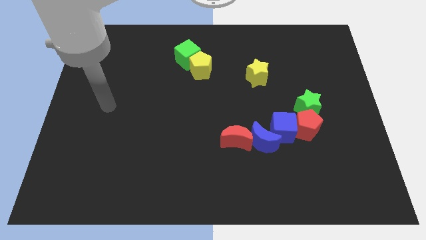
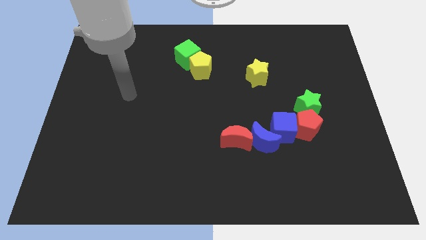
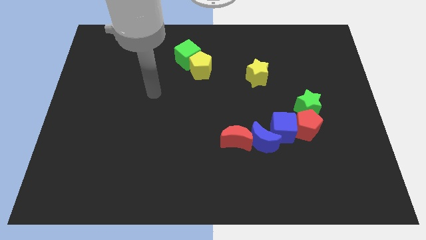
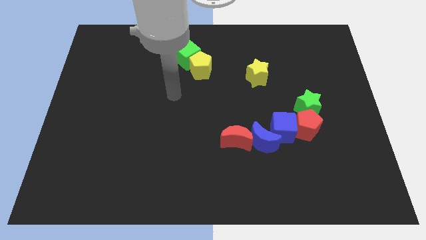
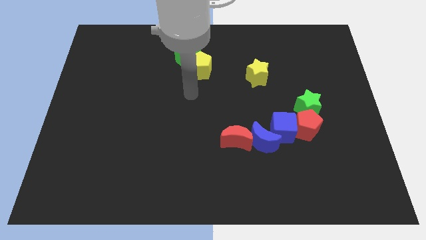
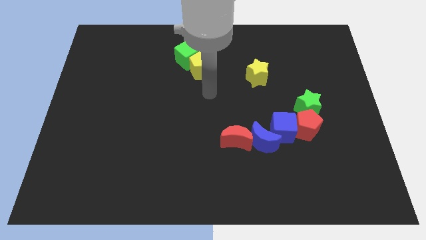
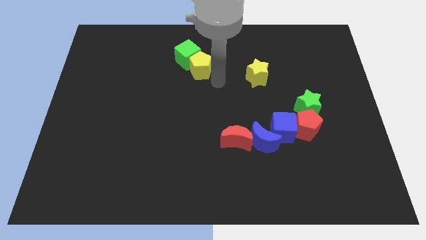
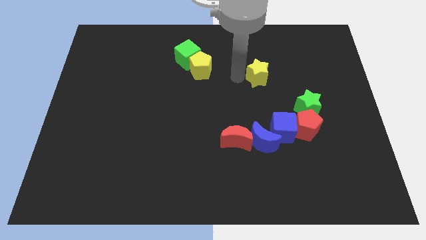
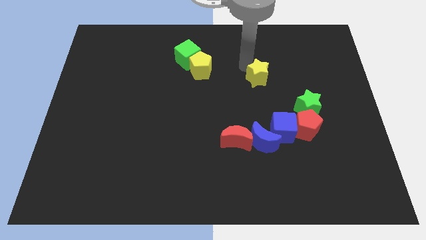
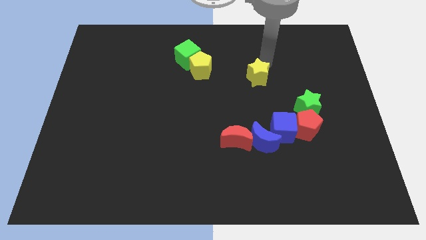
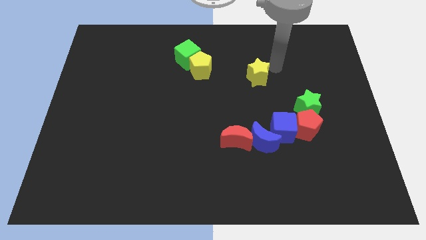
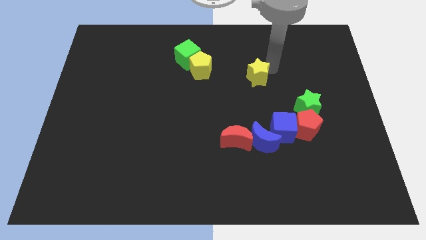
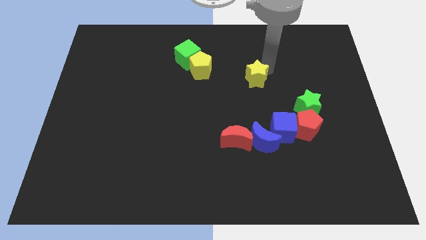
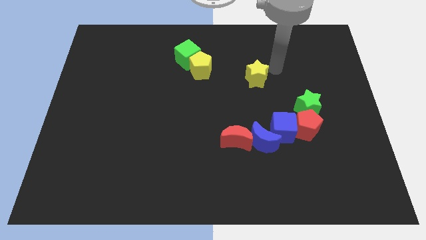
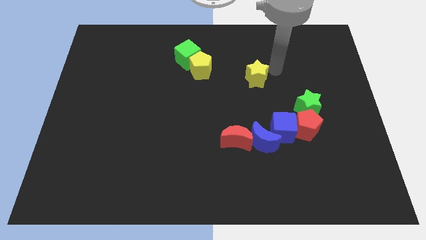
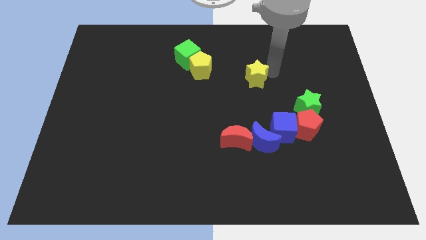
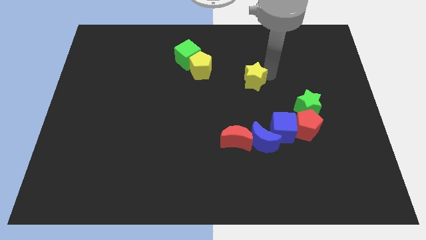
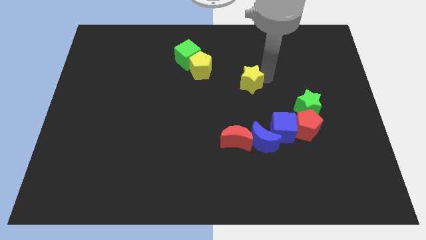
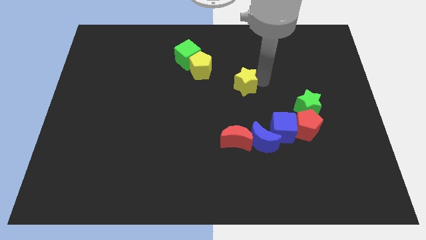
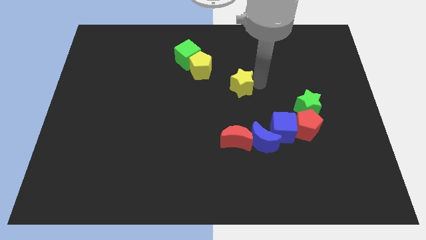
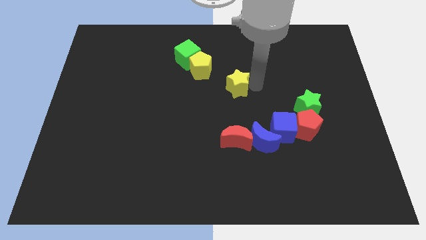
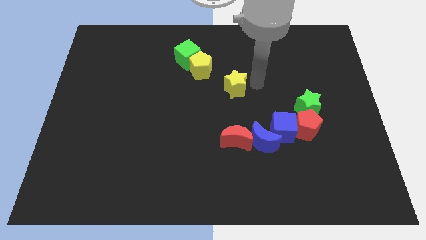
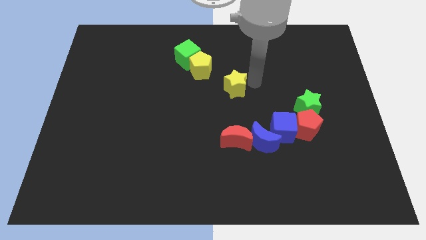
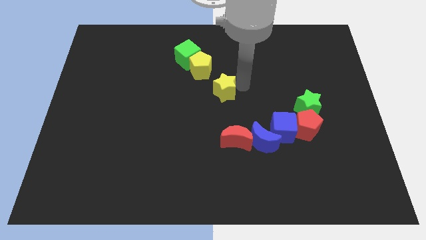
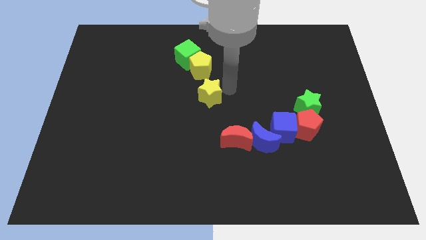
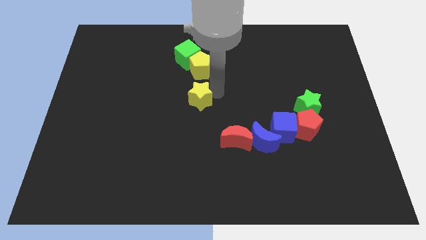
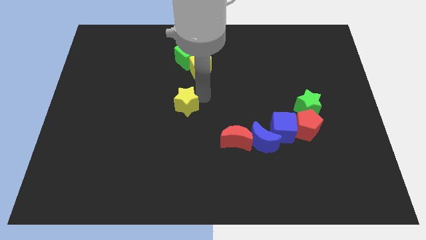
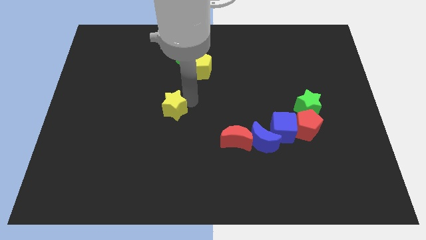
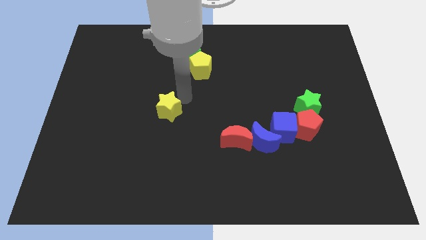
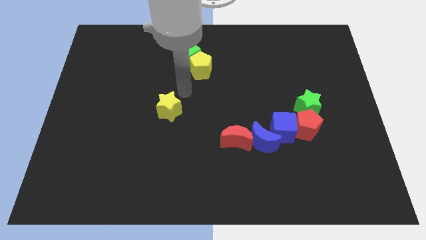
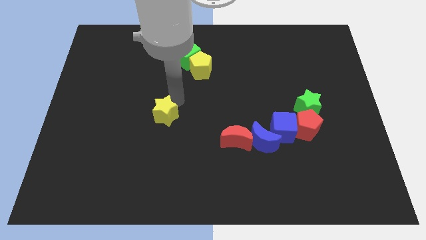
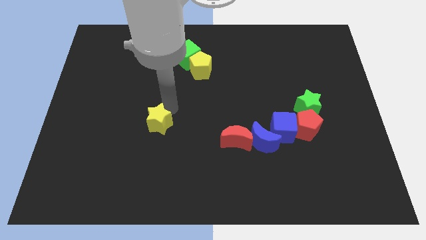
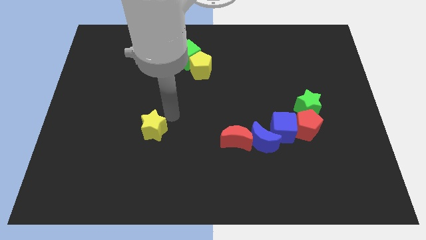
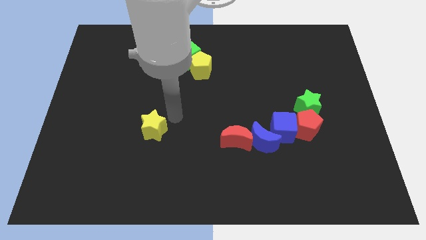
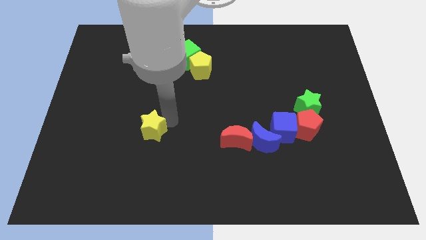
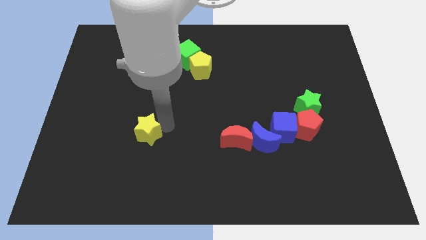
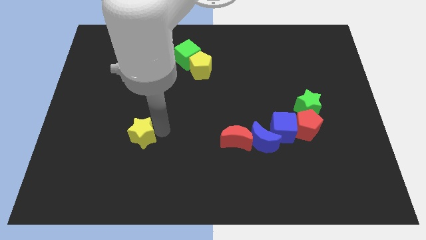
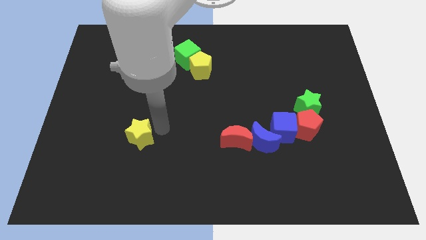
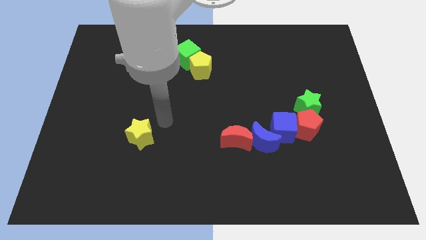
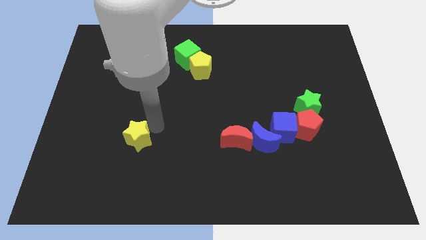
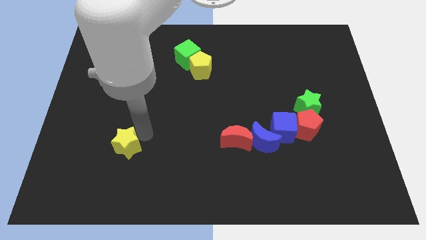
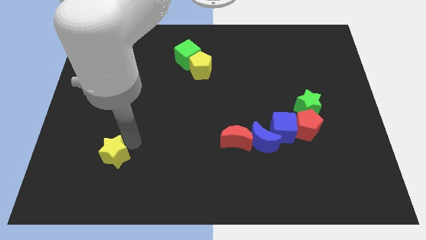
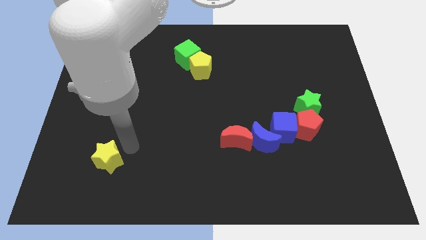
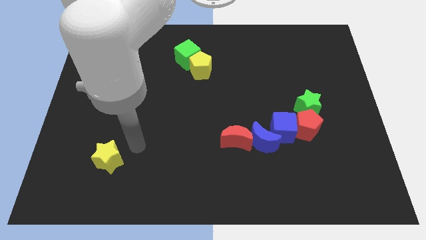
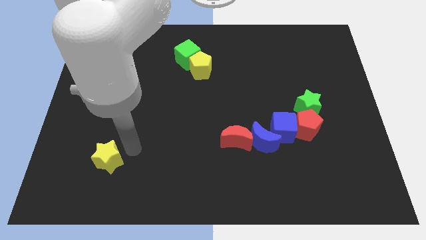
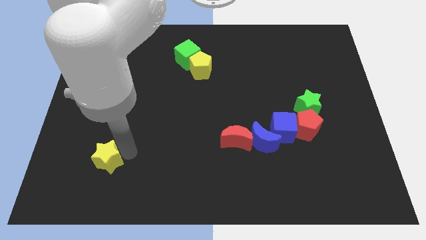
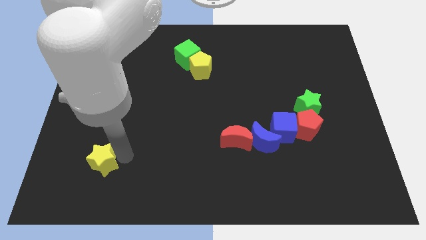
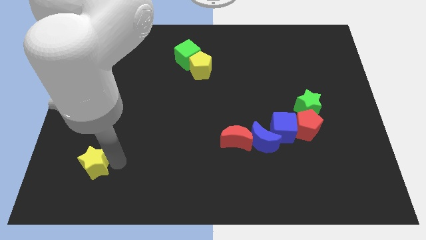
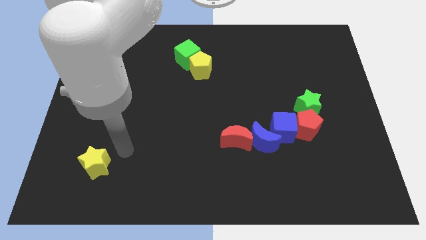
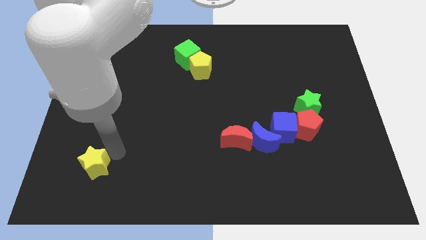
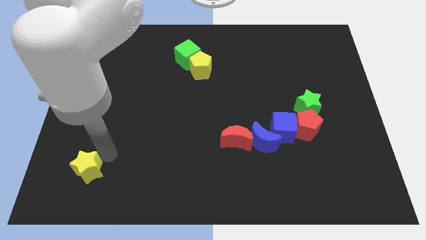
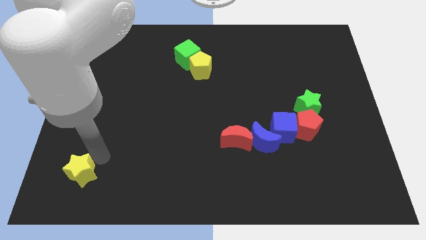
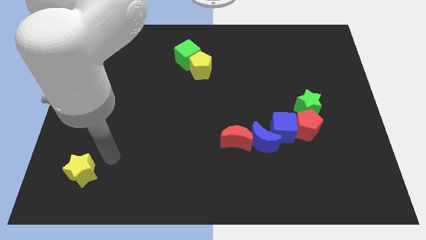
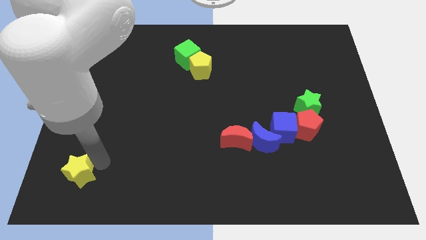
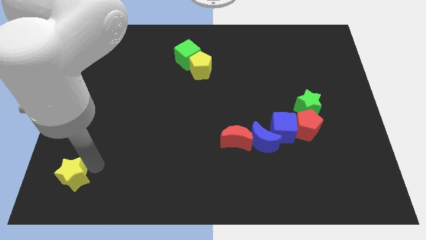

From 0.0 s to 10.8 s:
move the yellow star to the bottom left corner

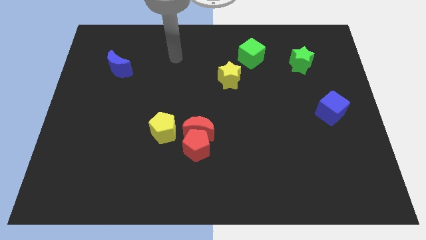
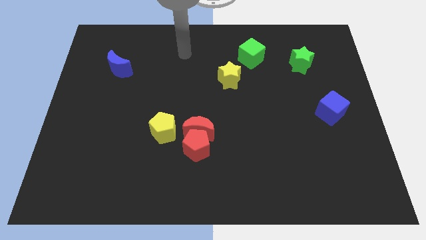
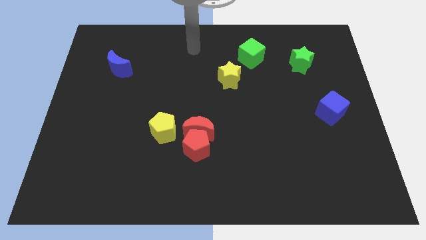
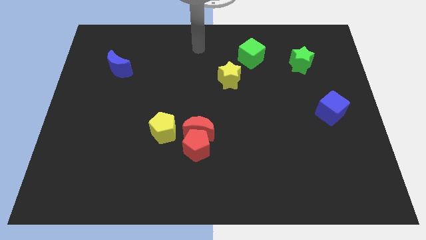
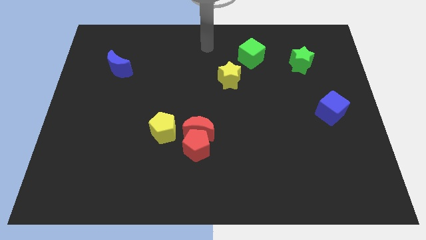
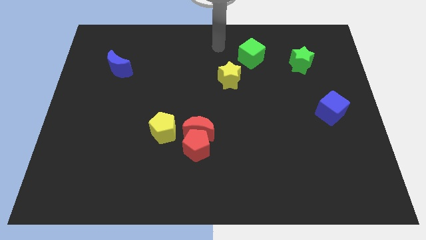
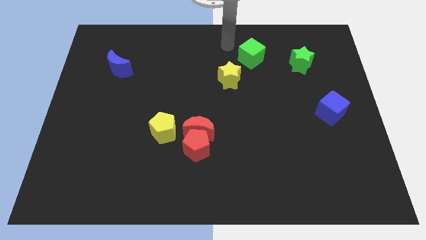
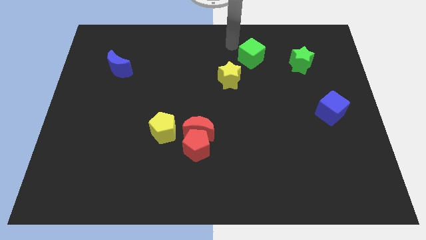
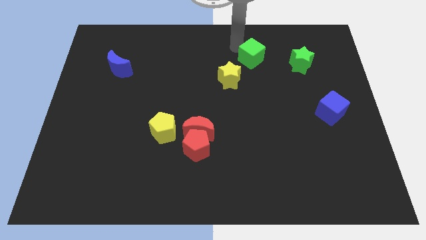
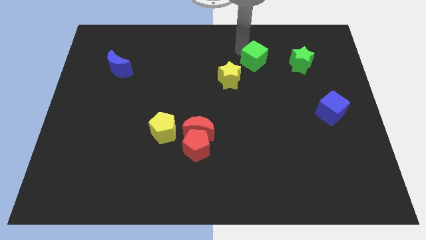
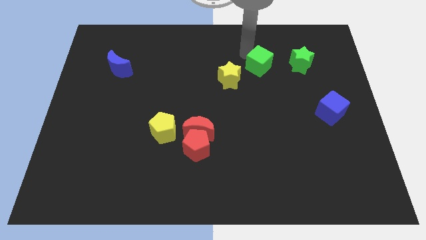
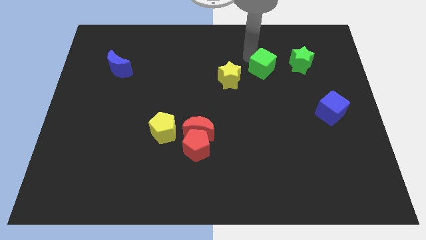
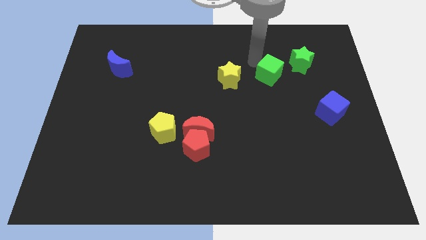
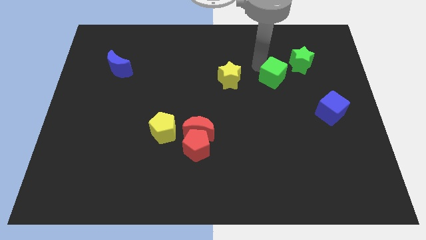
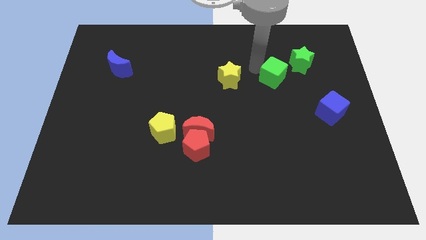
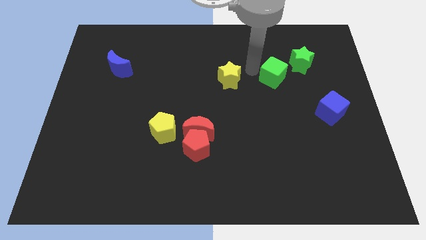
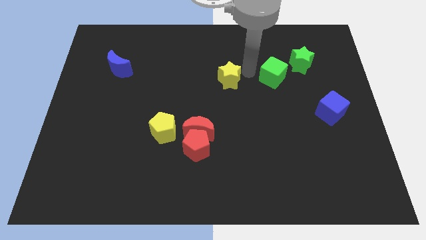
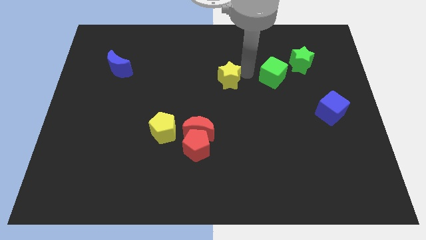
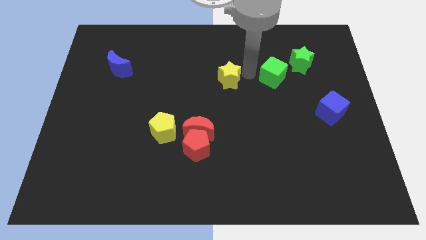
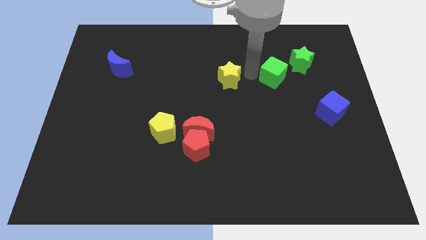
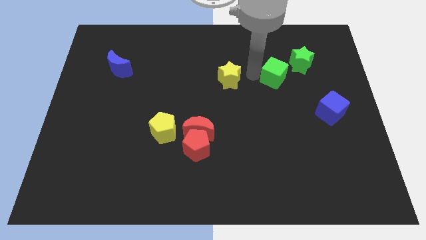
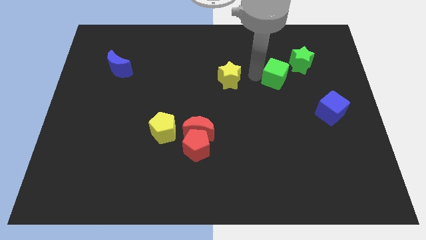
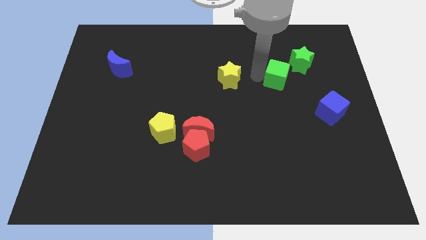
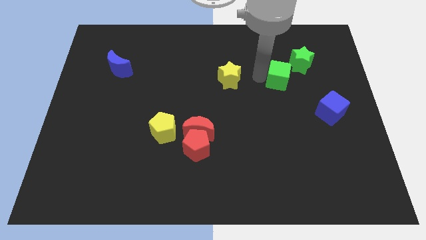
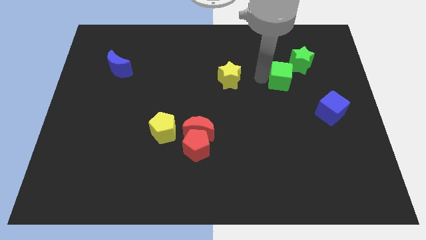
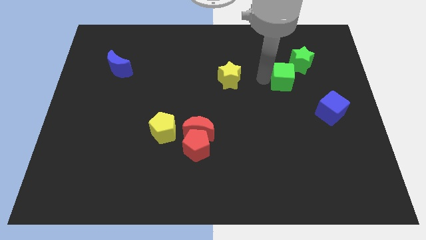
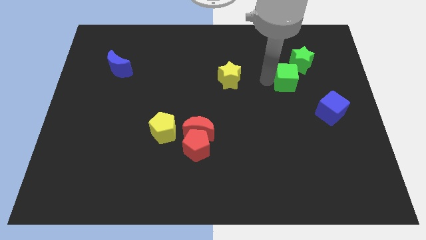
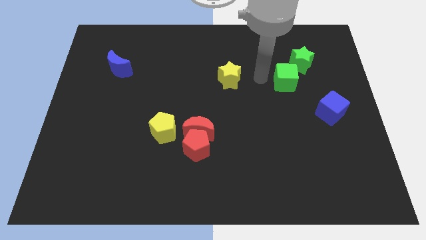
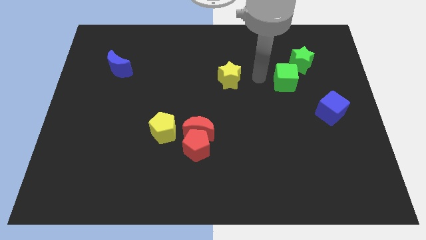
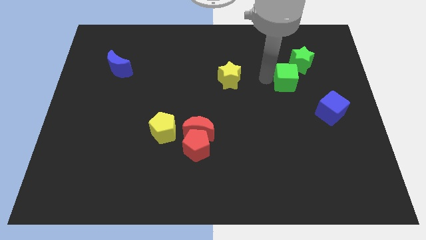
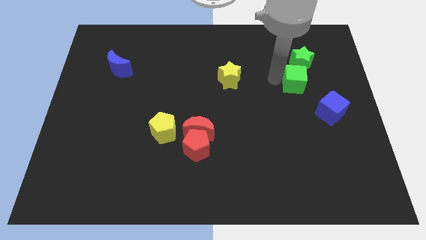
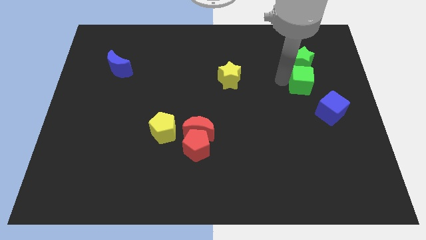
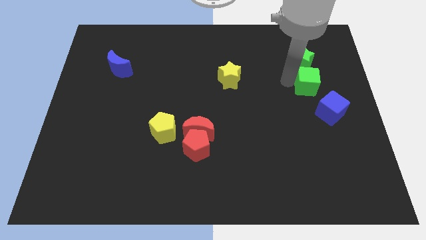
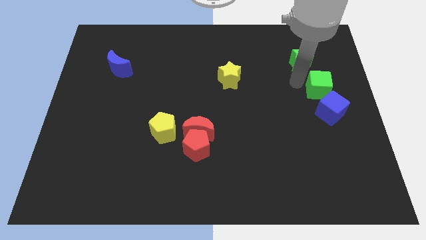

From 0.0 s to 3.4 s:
push the green cube to the center right
